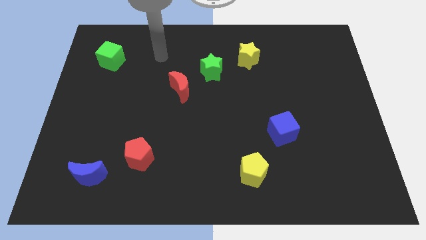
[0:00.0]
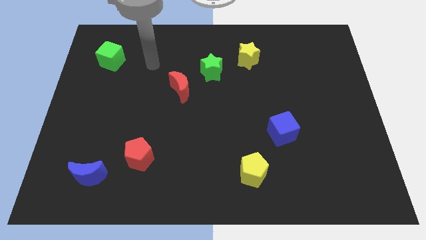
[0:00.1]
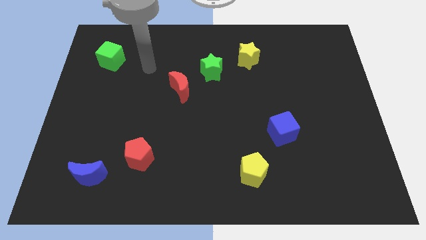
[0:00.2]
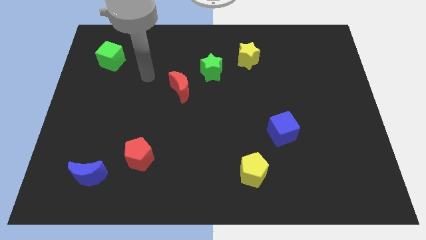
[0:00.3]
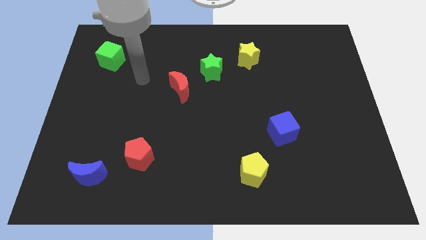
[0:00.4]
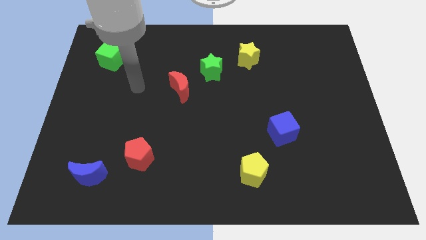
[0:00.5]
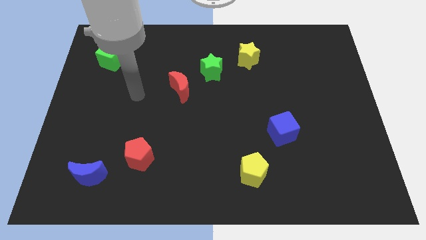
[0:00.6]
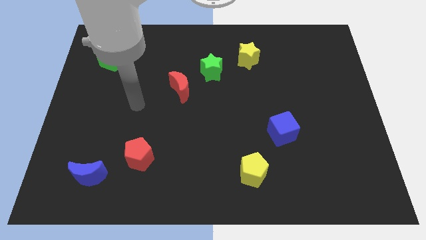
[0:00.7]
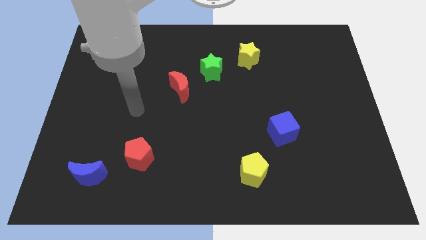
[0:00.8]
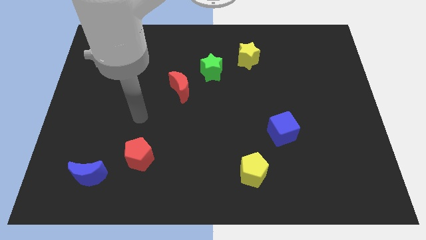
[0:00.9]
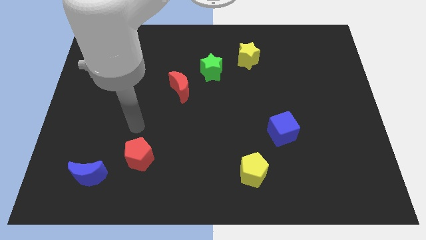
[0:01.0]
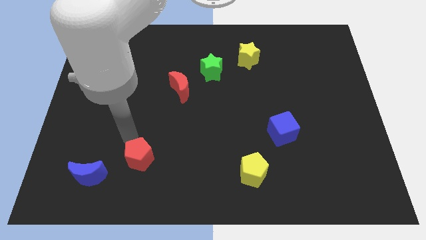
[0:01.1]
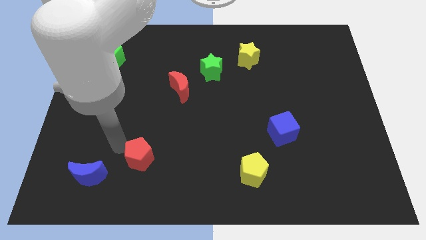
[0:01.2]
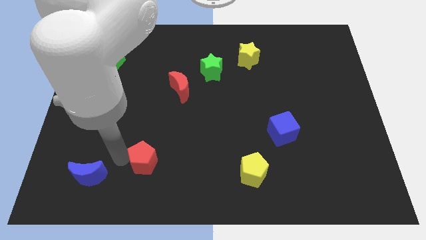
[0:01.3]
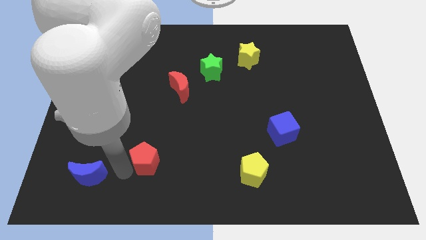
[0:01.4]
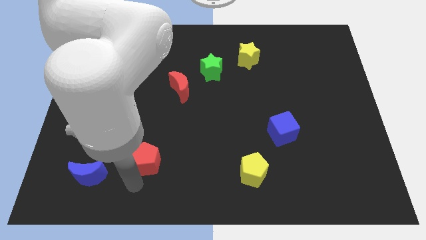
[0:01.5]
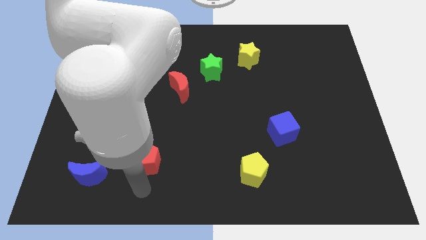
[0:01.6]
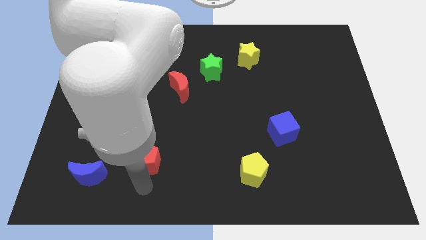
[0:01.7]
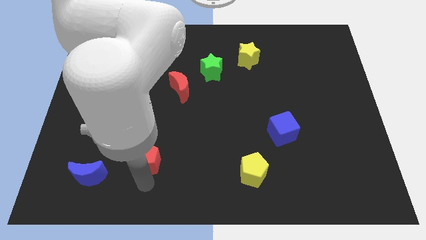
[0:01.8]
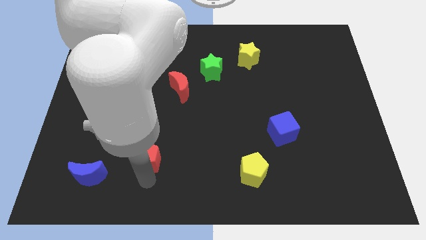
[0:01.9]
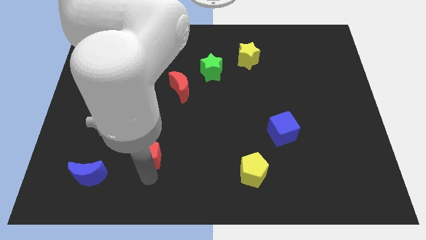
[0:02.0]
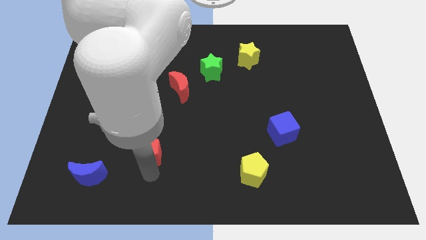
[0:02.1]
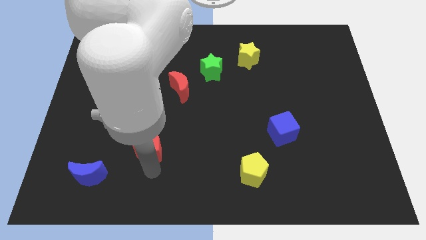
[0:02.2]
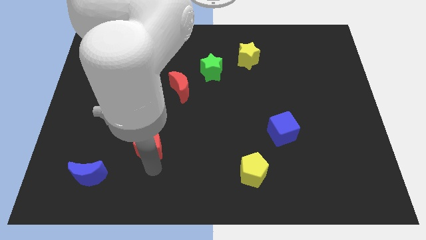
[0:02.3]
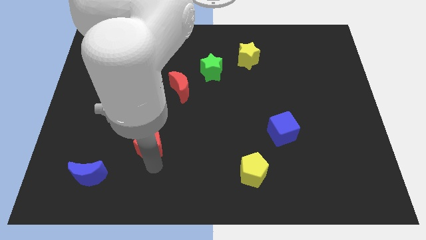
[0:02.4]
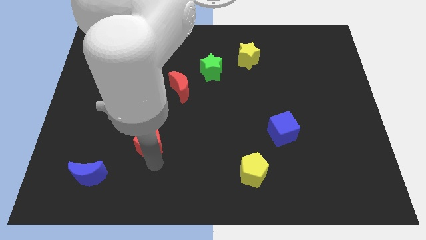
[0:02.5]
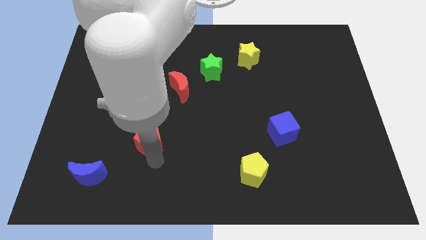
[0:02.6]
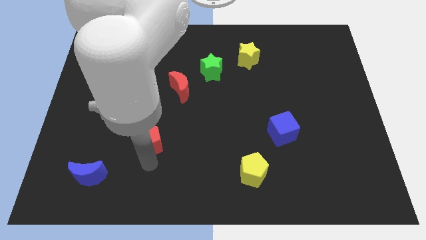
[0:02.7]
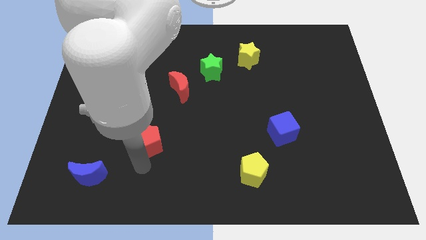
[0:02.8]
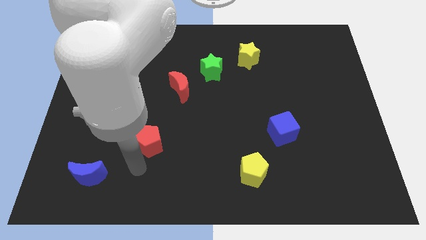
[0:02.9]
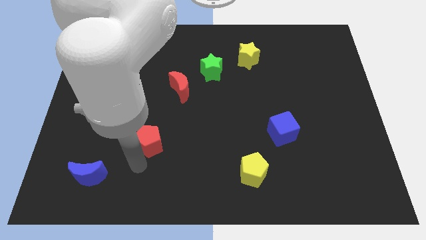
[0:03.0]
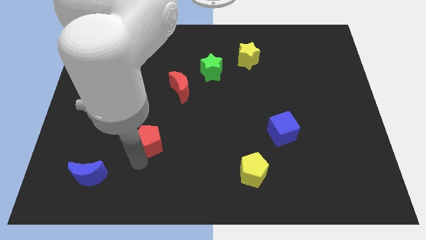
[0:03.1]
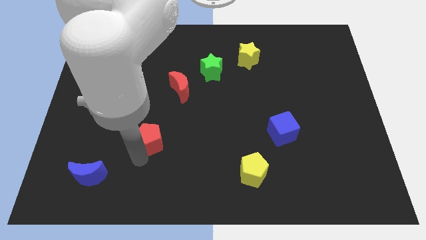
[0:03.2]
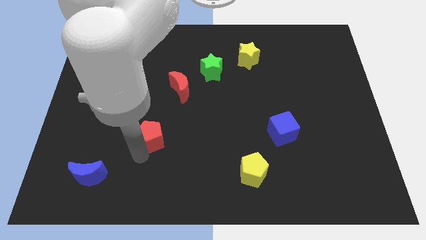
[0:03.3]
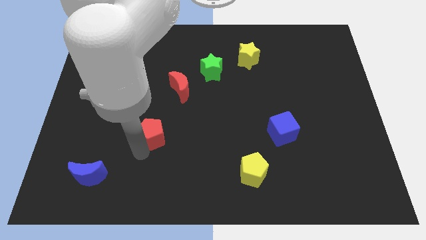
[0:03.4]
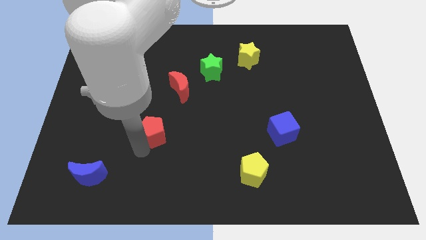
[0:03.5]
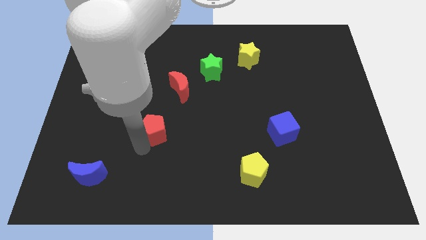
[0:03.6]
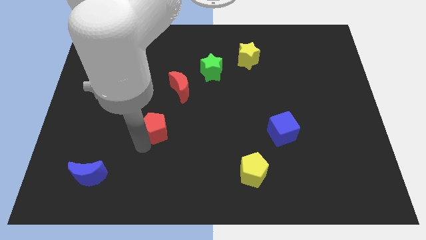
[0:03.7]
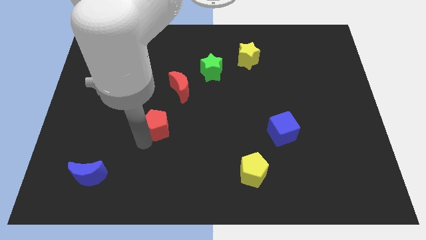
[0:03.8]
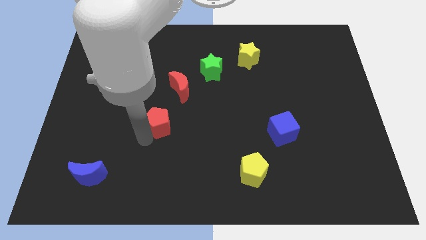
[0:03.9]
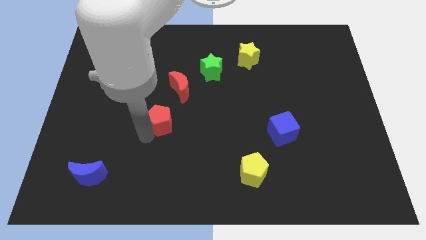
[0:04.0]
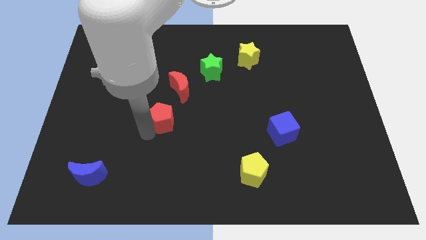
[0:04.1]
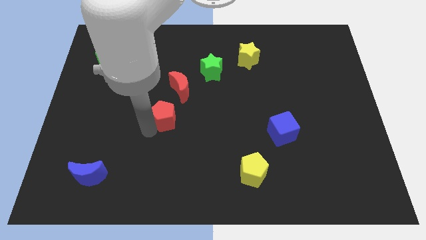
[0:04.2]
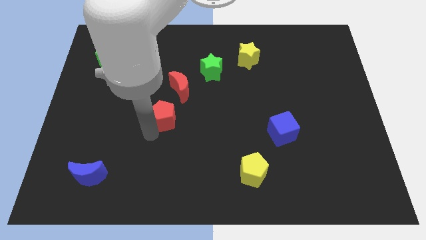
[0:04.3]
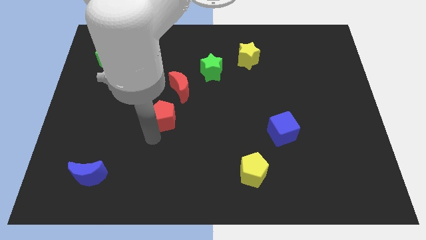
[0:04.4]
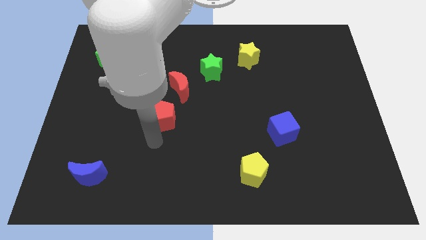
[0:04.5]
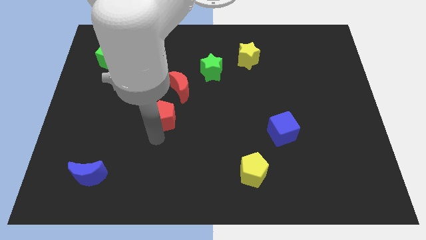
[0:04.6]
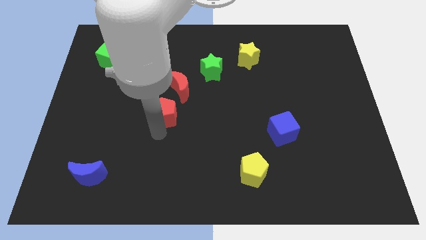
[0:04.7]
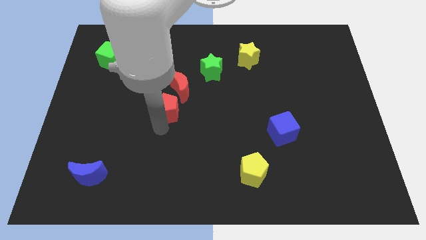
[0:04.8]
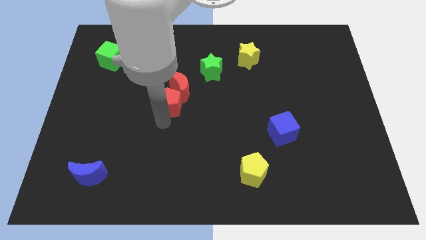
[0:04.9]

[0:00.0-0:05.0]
push the red pentagon next to the red moon

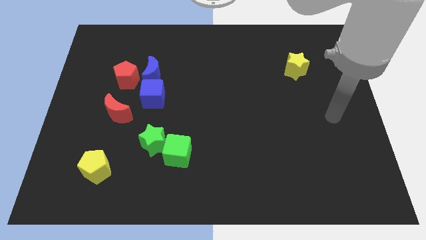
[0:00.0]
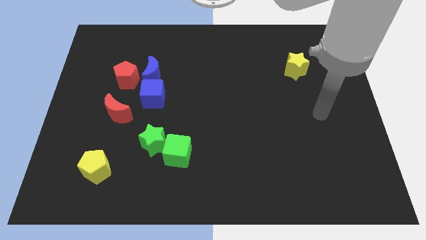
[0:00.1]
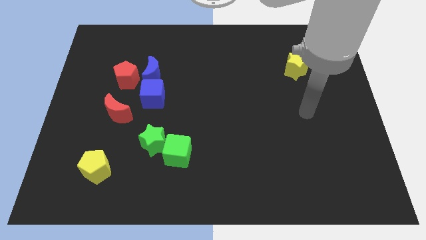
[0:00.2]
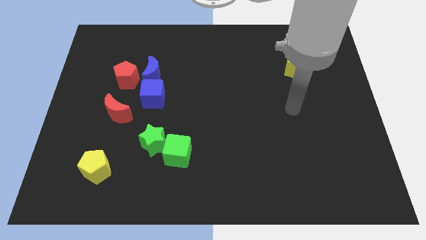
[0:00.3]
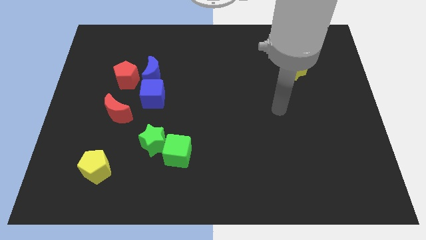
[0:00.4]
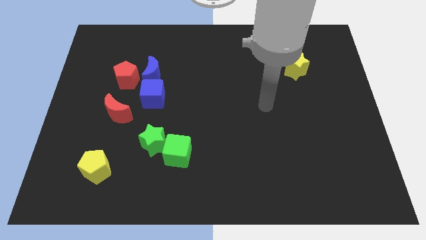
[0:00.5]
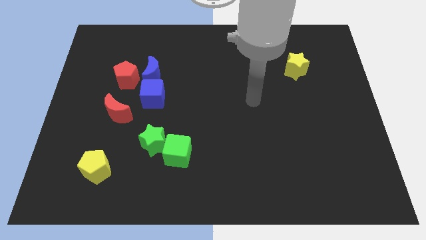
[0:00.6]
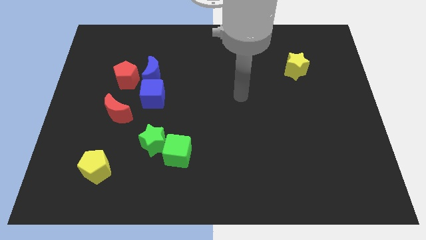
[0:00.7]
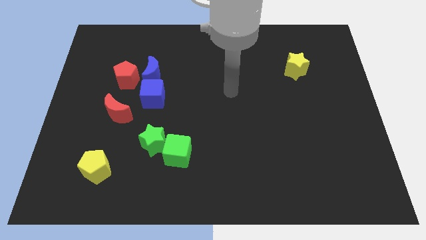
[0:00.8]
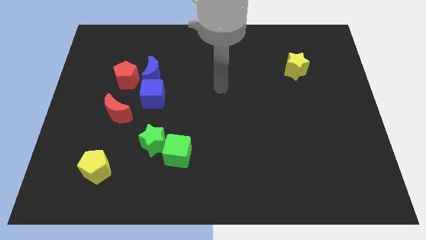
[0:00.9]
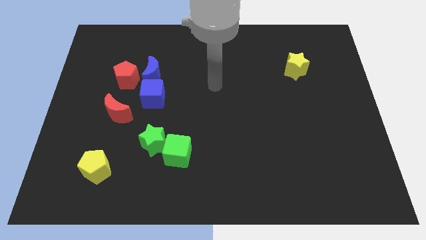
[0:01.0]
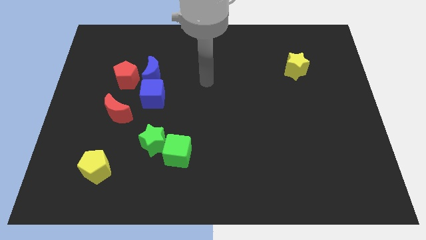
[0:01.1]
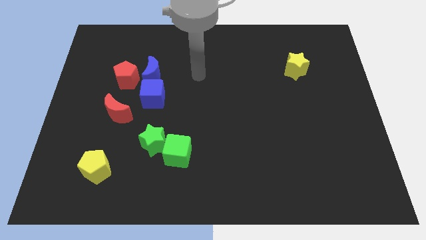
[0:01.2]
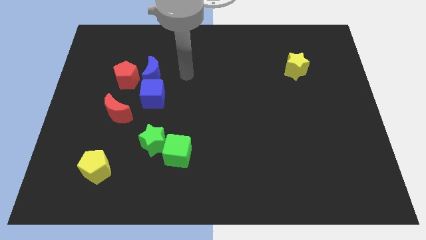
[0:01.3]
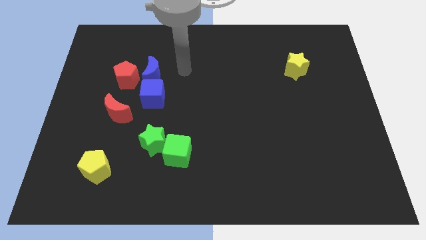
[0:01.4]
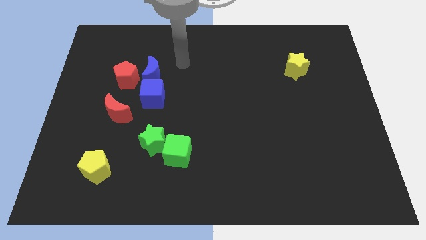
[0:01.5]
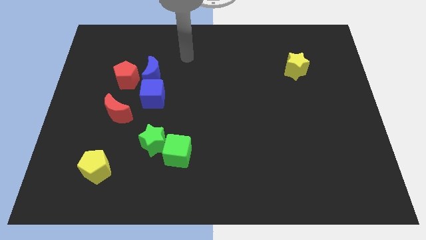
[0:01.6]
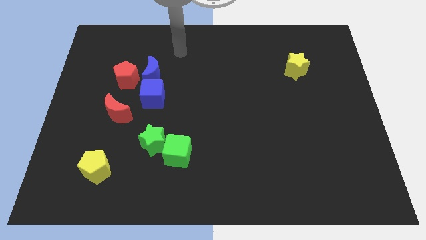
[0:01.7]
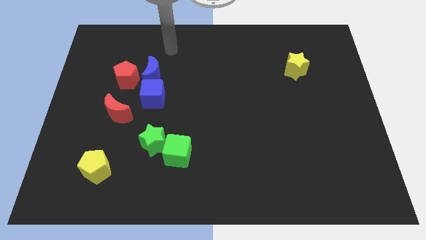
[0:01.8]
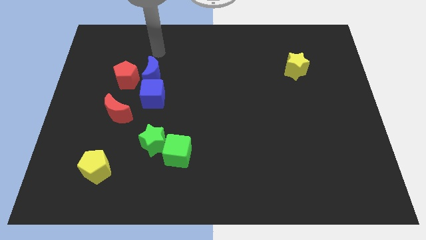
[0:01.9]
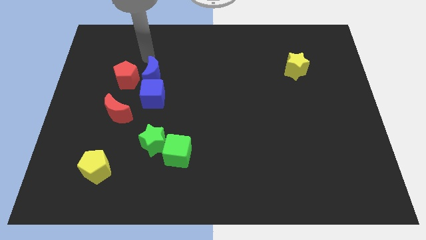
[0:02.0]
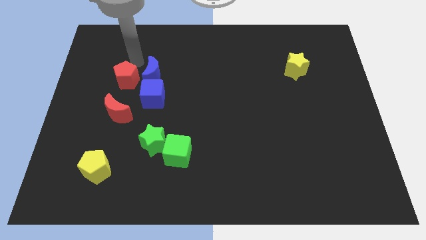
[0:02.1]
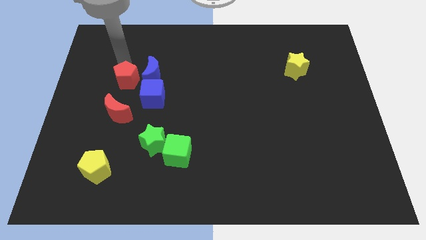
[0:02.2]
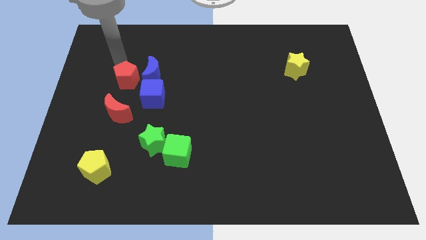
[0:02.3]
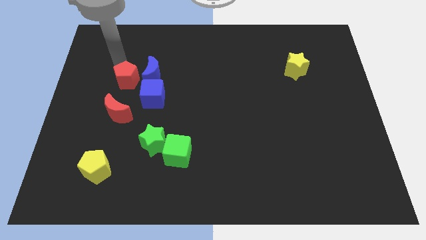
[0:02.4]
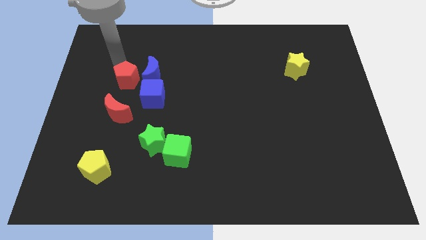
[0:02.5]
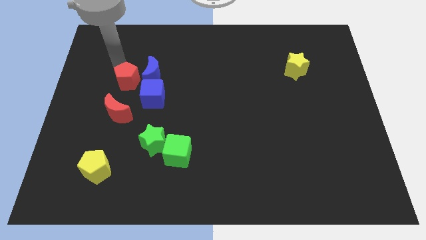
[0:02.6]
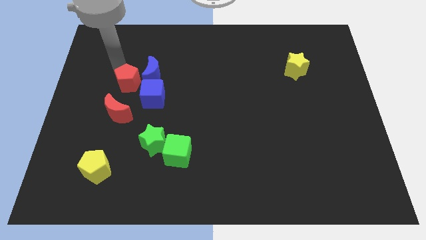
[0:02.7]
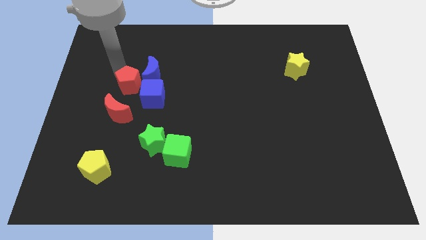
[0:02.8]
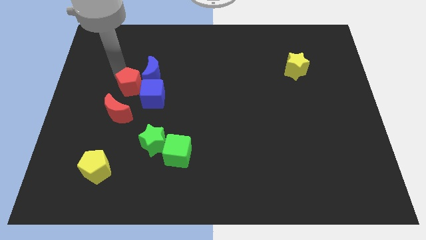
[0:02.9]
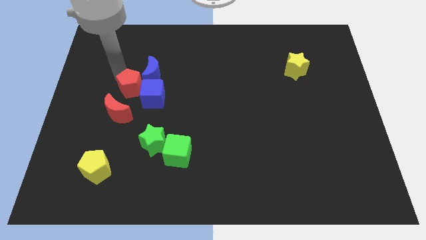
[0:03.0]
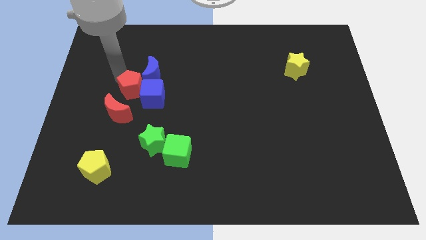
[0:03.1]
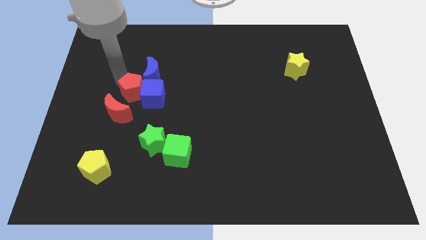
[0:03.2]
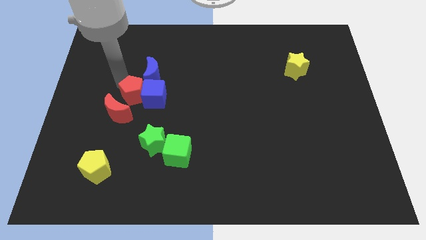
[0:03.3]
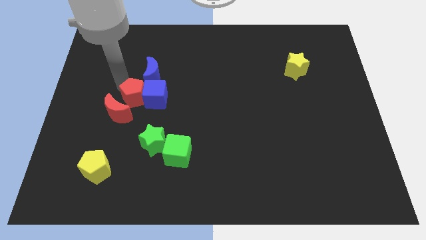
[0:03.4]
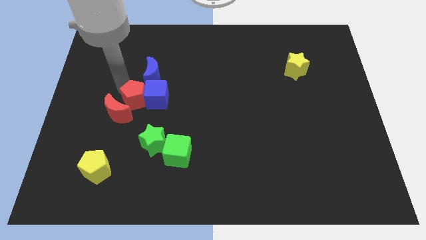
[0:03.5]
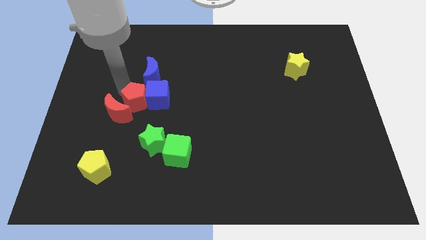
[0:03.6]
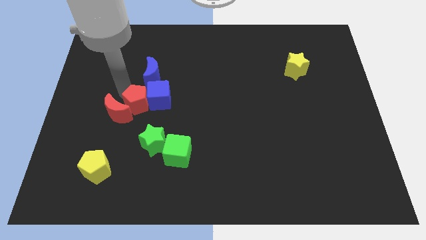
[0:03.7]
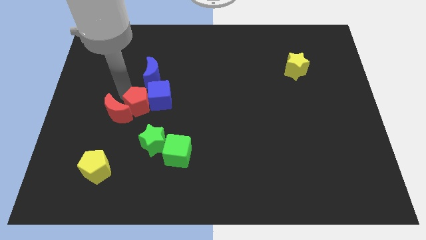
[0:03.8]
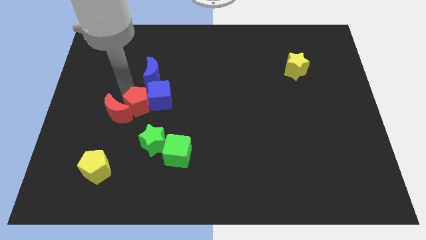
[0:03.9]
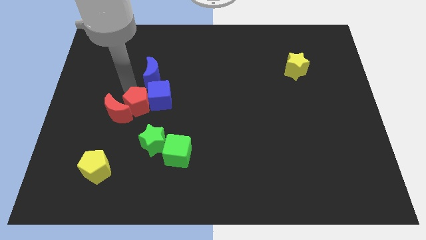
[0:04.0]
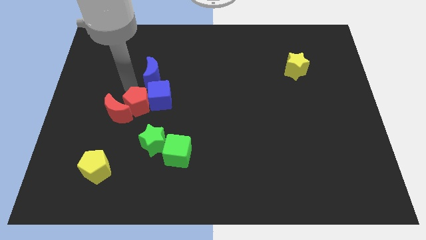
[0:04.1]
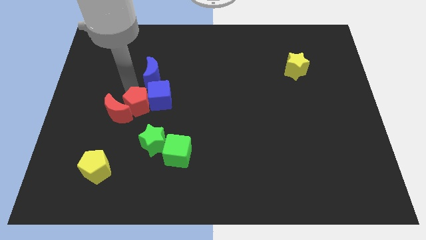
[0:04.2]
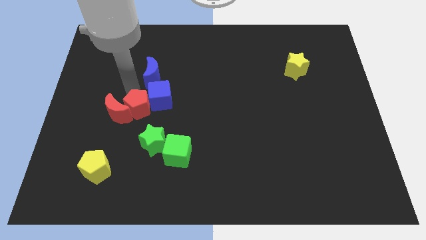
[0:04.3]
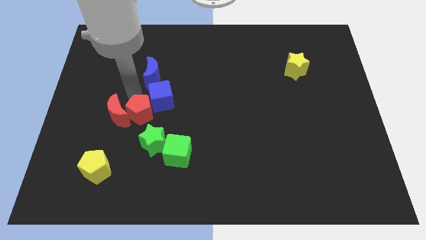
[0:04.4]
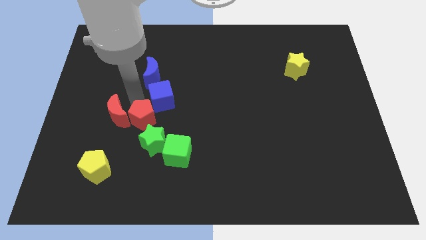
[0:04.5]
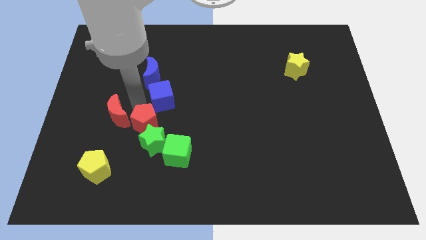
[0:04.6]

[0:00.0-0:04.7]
slide the red pentagon towards the green star
